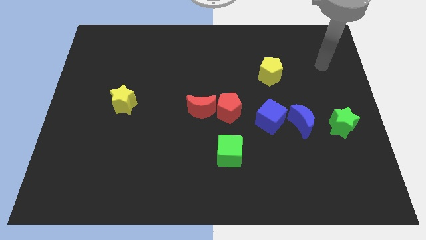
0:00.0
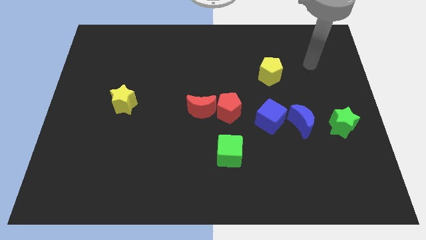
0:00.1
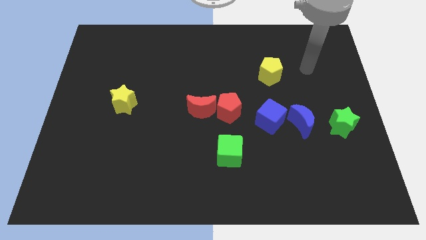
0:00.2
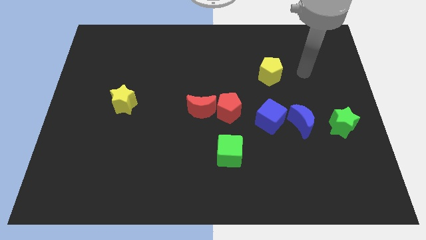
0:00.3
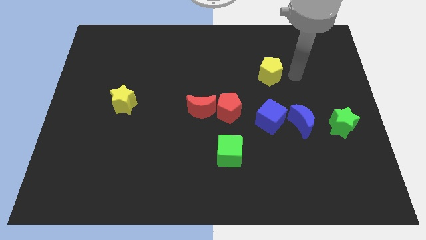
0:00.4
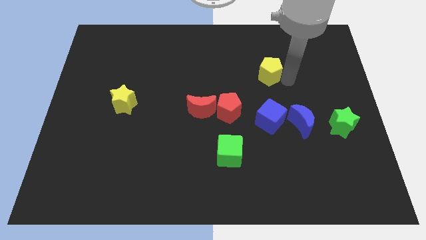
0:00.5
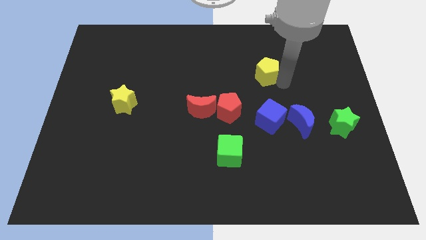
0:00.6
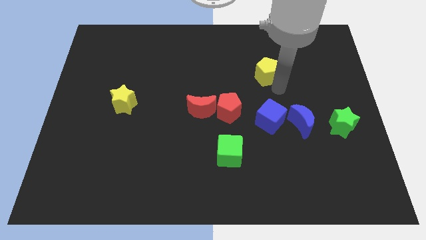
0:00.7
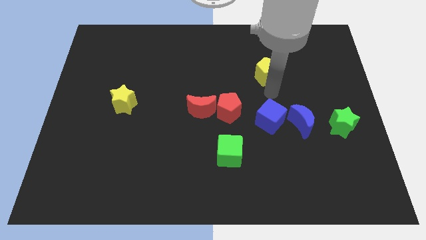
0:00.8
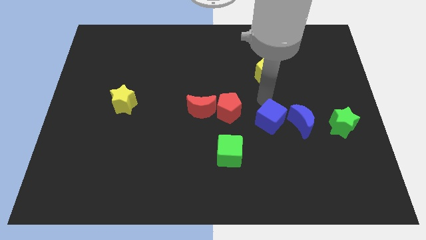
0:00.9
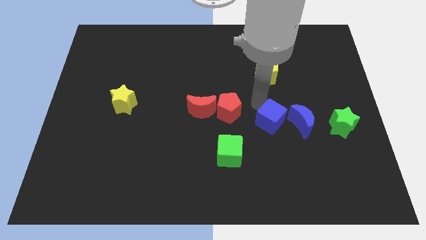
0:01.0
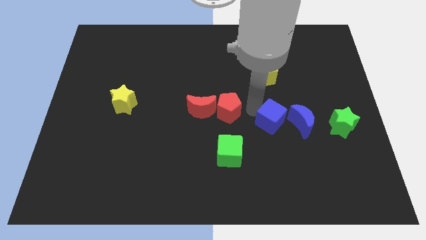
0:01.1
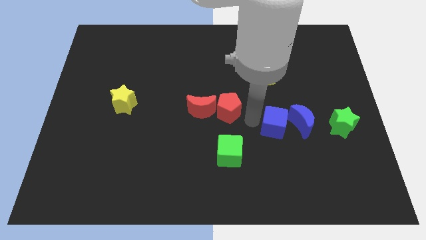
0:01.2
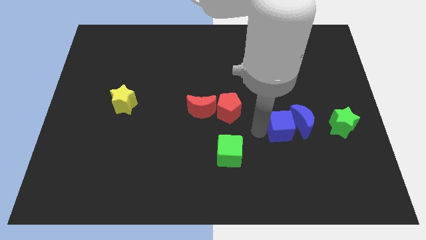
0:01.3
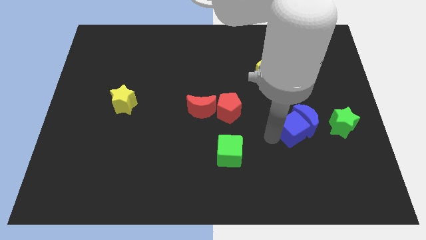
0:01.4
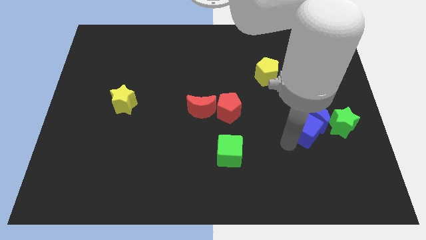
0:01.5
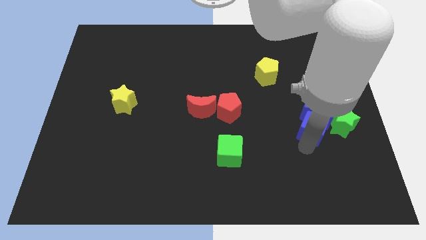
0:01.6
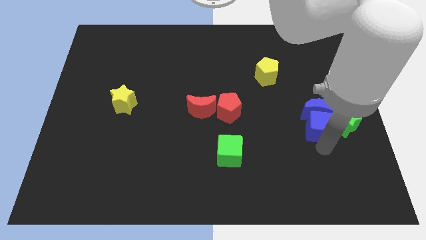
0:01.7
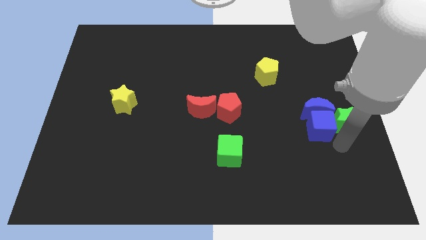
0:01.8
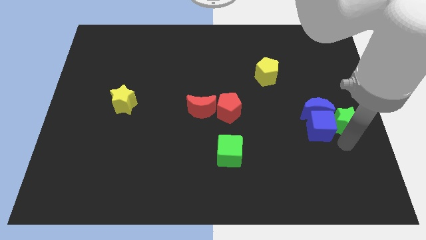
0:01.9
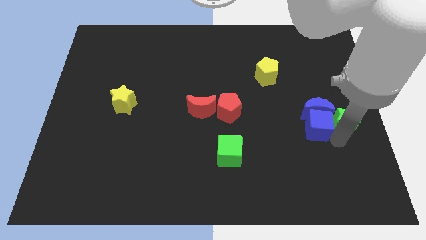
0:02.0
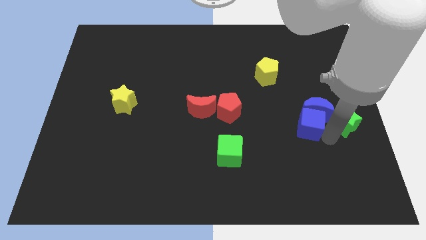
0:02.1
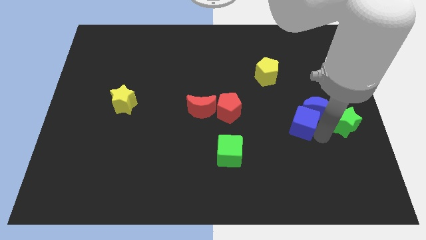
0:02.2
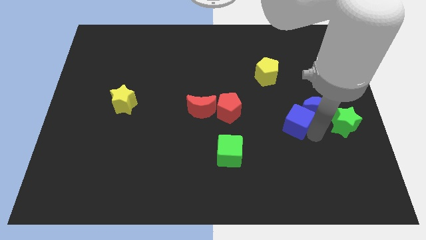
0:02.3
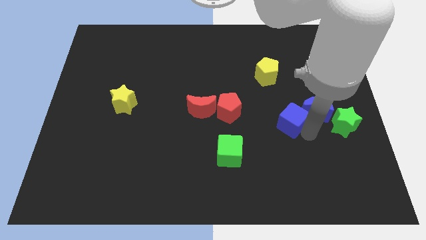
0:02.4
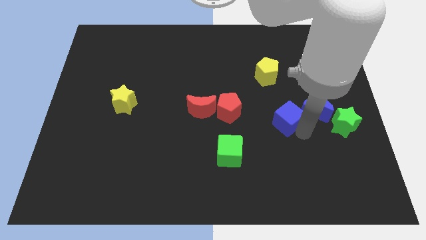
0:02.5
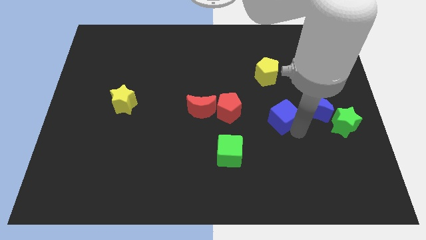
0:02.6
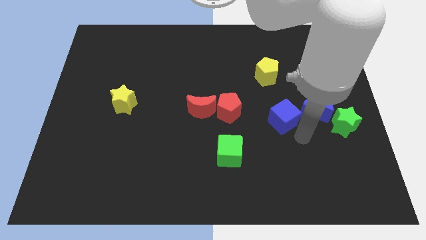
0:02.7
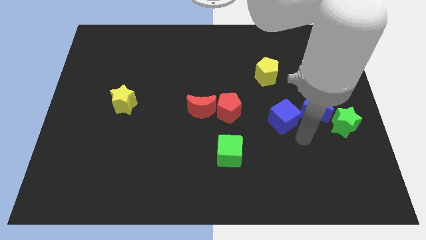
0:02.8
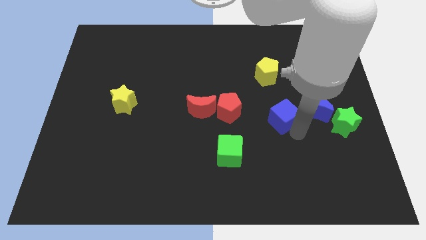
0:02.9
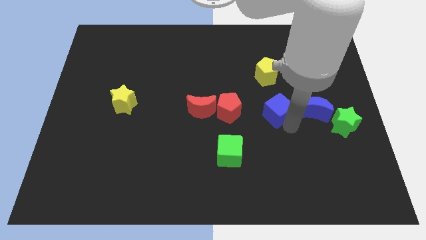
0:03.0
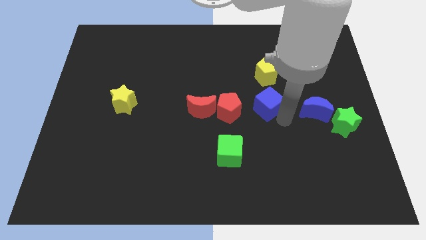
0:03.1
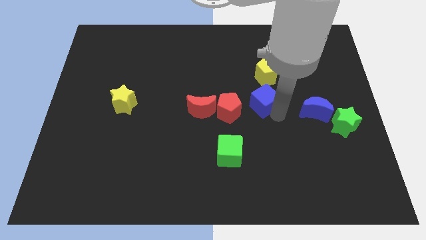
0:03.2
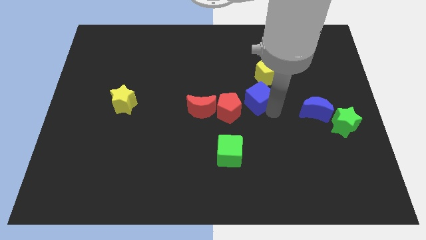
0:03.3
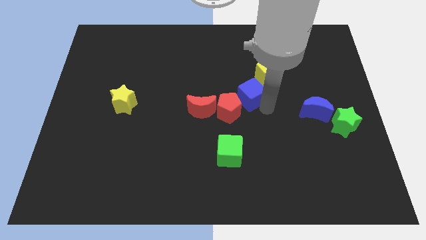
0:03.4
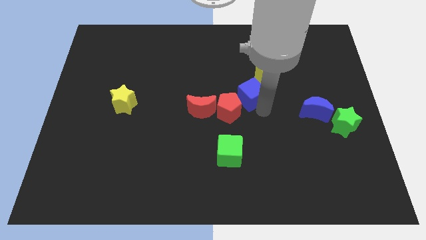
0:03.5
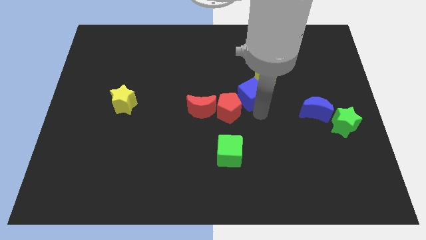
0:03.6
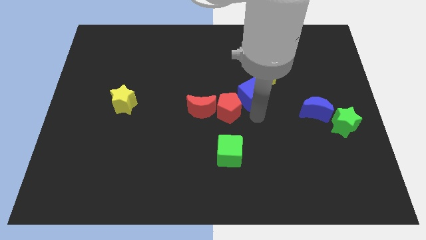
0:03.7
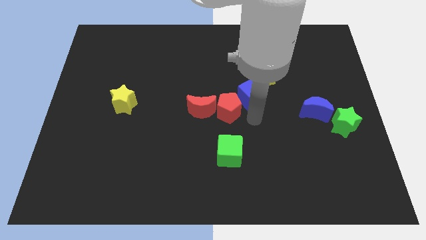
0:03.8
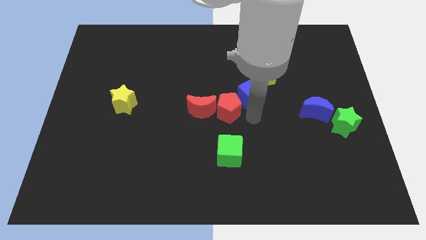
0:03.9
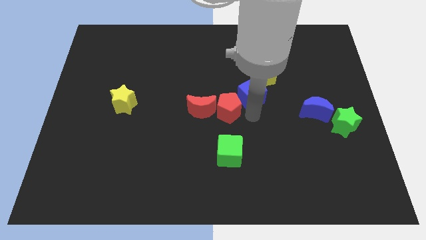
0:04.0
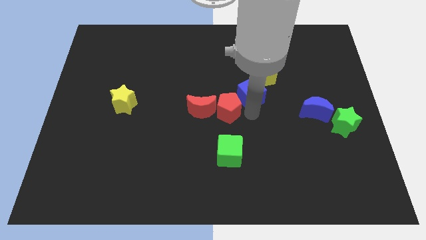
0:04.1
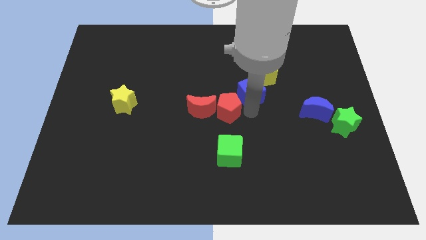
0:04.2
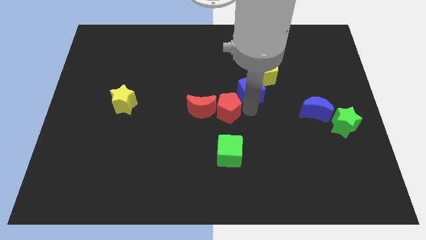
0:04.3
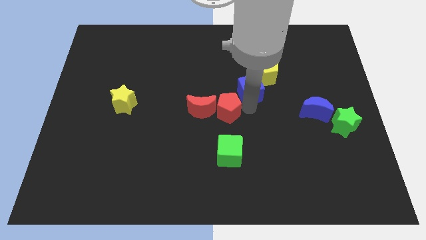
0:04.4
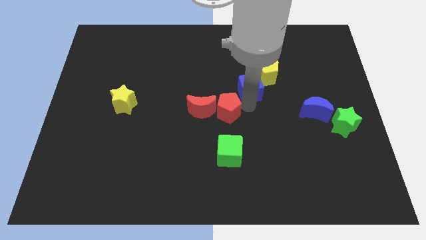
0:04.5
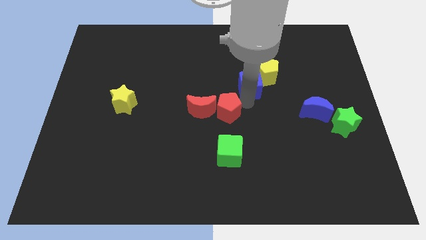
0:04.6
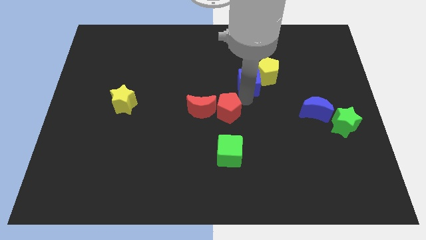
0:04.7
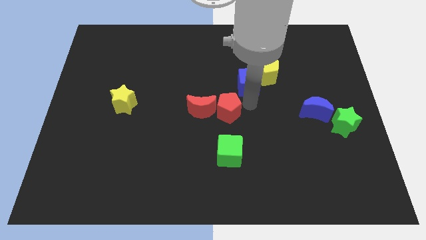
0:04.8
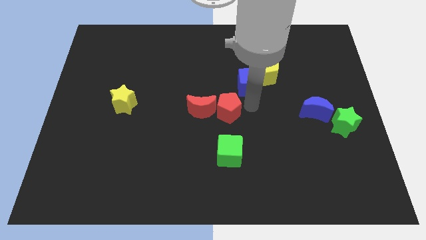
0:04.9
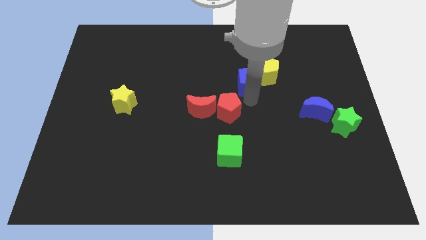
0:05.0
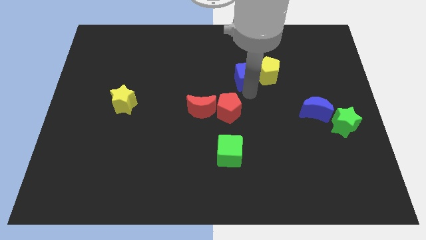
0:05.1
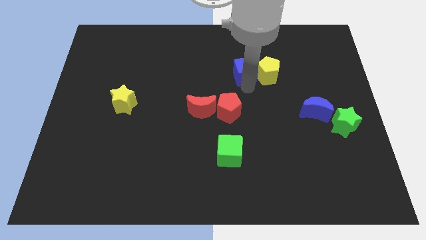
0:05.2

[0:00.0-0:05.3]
put the blue cube to the top left side of the yellow pentagon
